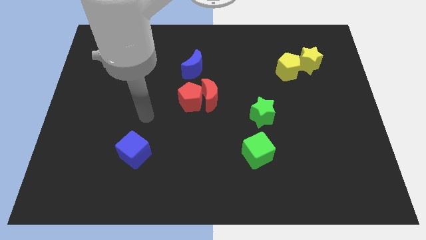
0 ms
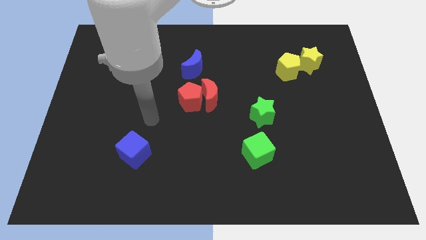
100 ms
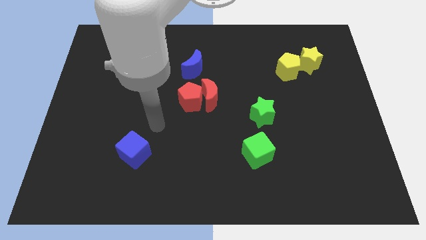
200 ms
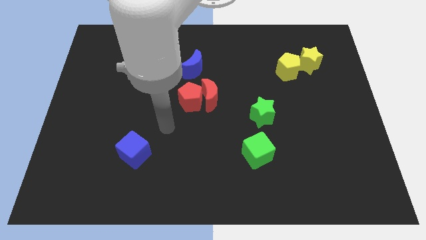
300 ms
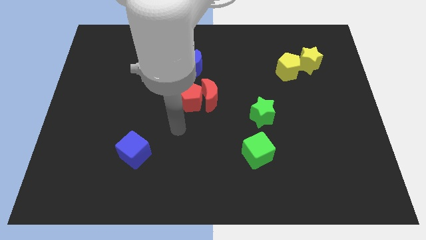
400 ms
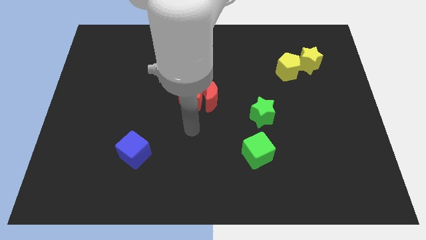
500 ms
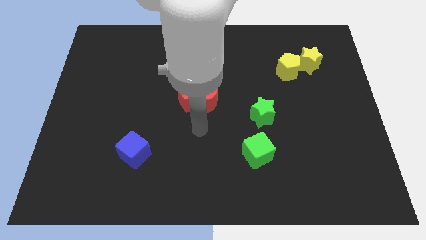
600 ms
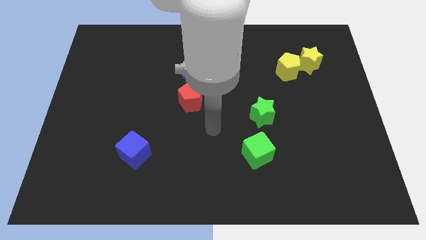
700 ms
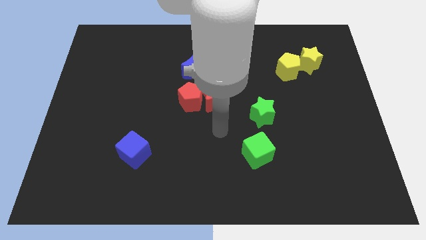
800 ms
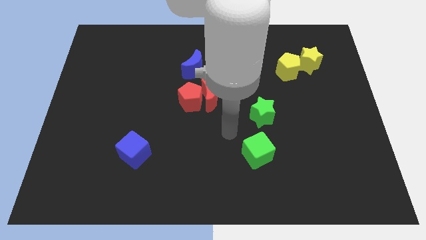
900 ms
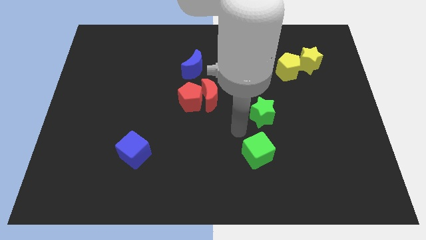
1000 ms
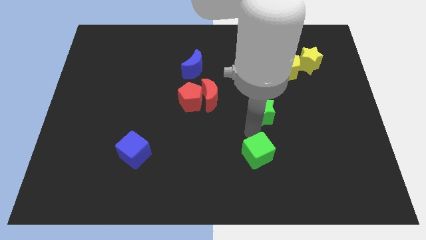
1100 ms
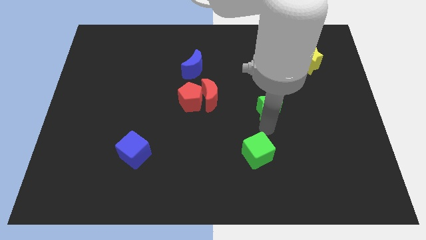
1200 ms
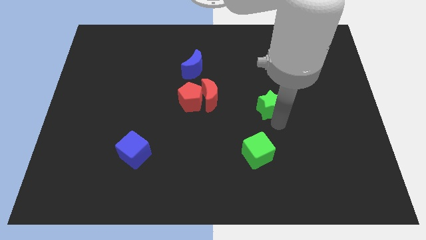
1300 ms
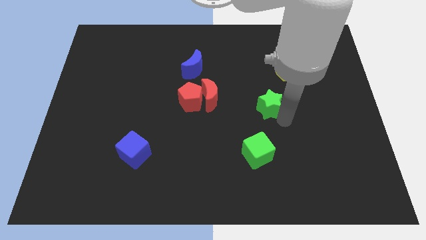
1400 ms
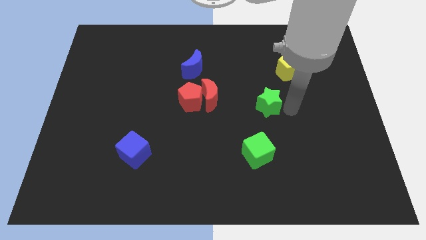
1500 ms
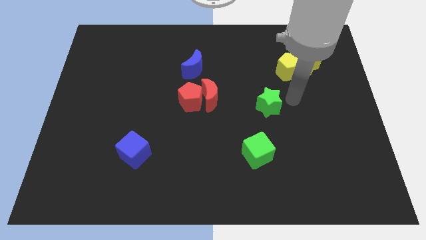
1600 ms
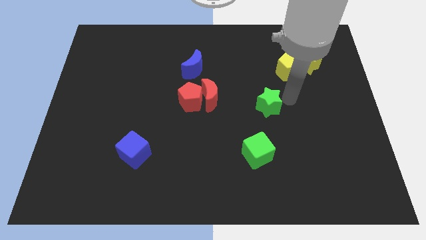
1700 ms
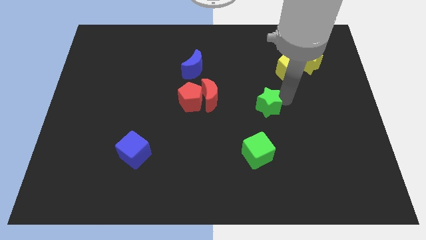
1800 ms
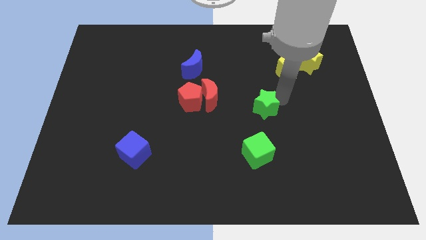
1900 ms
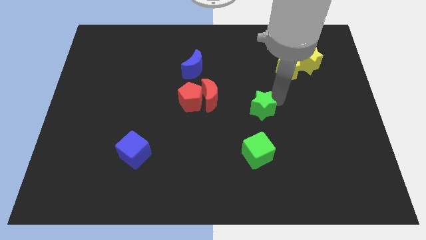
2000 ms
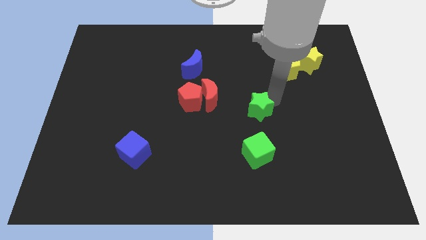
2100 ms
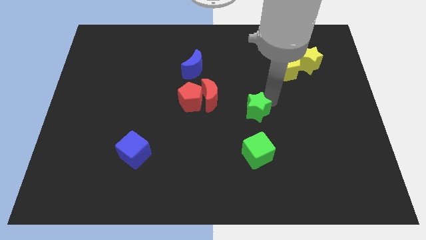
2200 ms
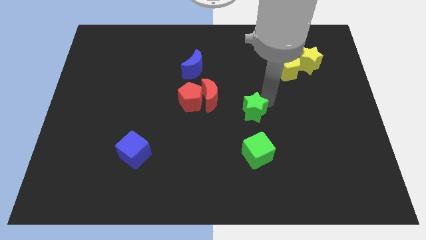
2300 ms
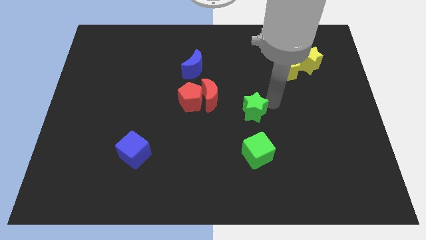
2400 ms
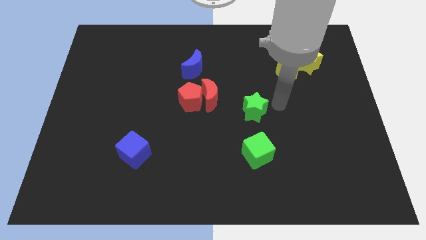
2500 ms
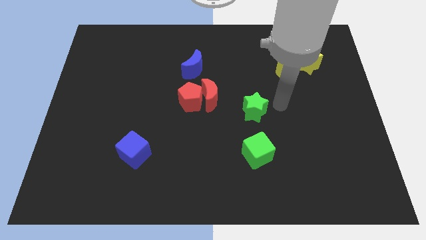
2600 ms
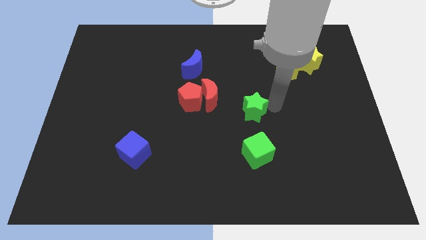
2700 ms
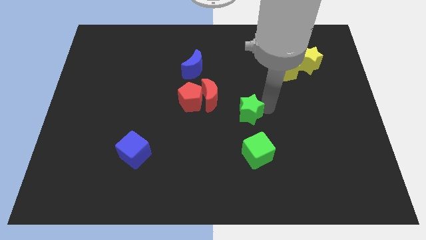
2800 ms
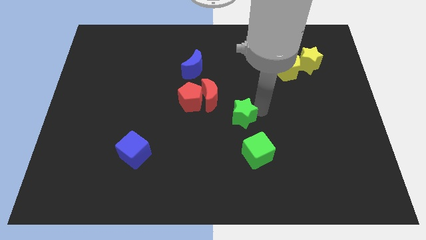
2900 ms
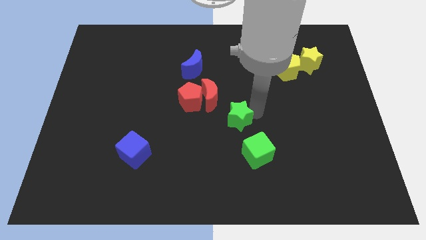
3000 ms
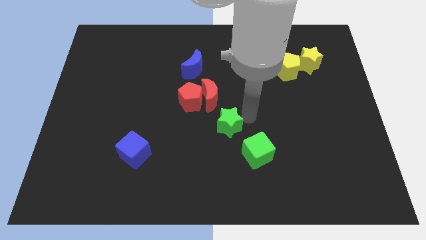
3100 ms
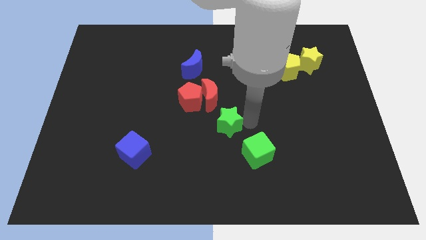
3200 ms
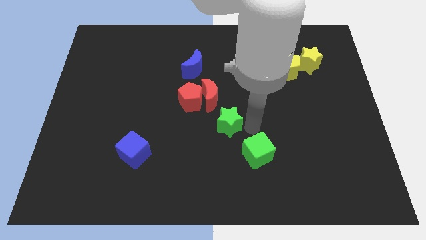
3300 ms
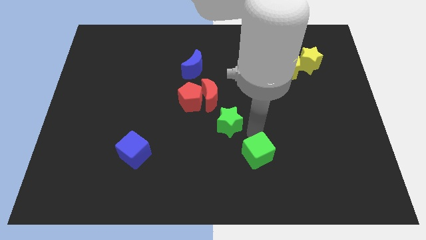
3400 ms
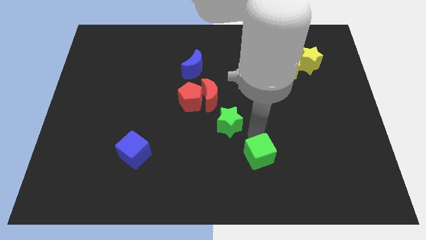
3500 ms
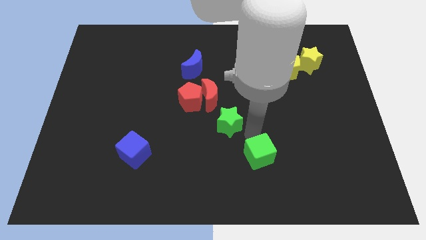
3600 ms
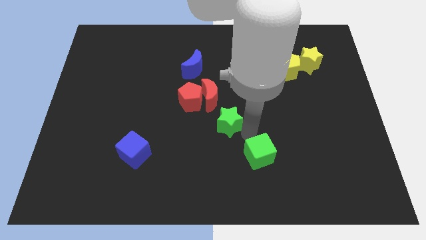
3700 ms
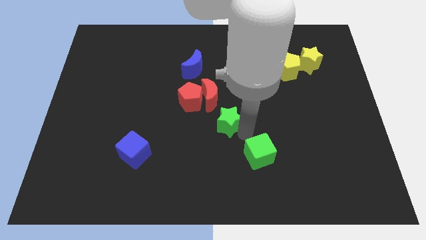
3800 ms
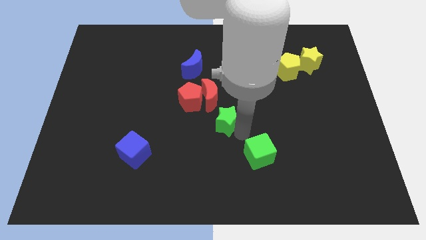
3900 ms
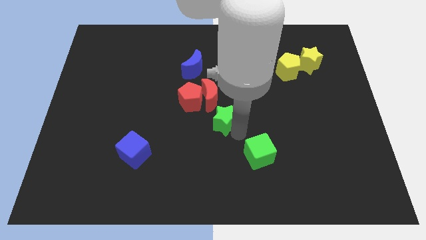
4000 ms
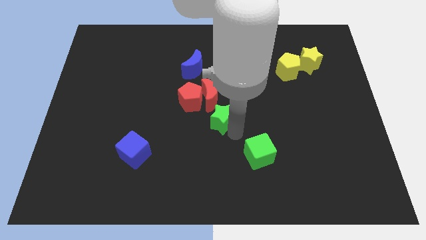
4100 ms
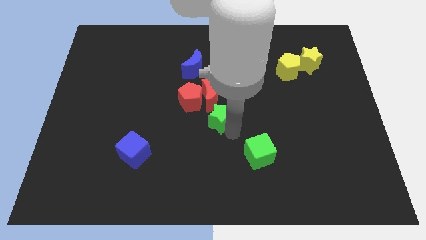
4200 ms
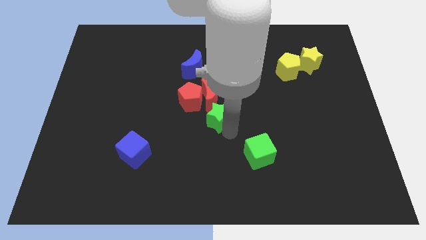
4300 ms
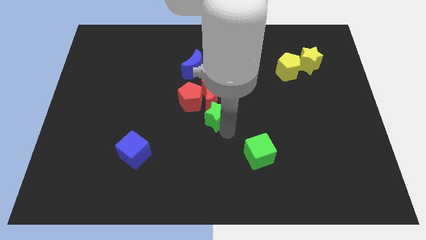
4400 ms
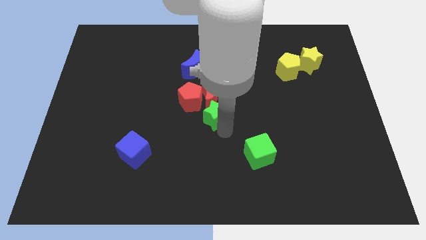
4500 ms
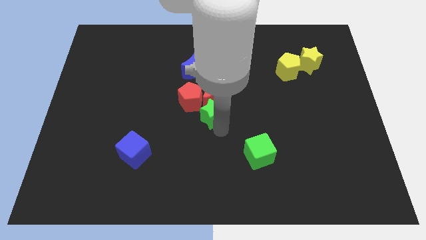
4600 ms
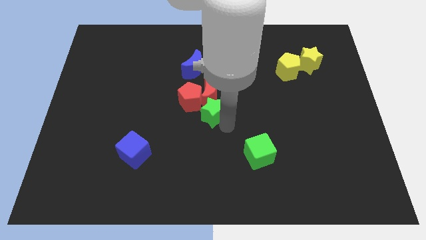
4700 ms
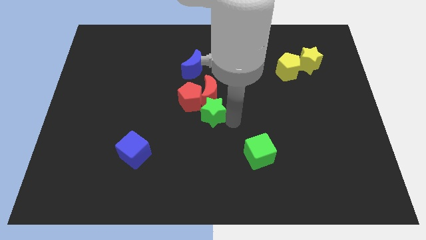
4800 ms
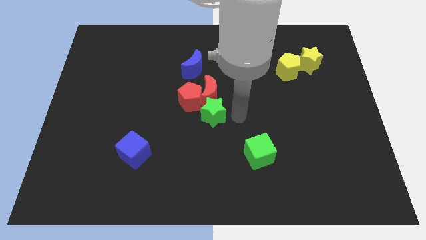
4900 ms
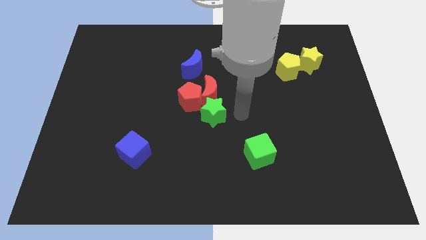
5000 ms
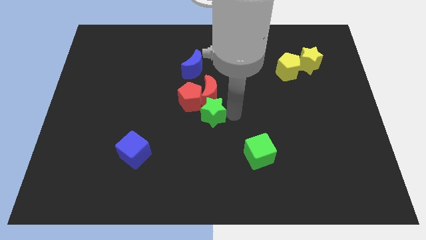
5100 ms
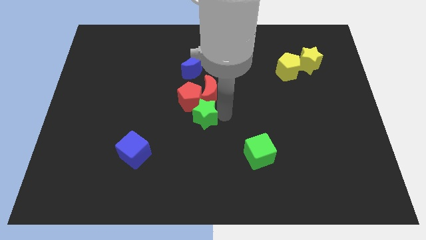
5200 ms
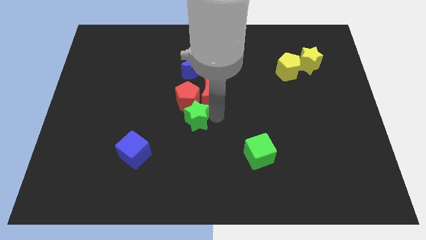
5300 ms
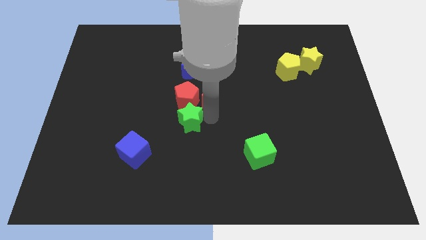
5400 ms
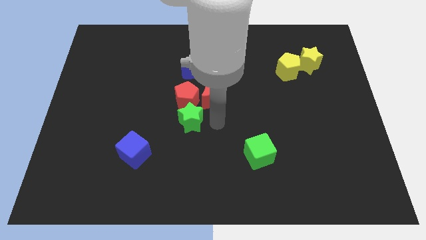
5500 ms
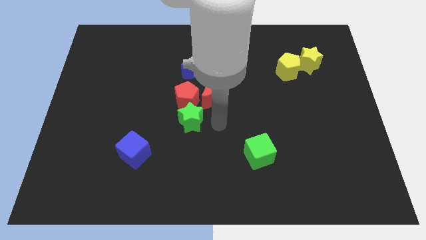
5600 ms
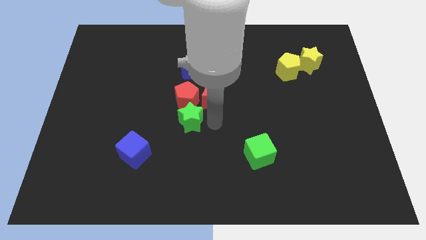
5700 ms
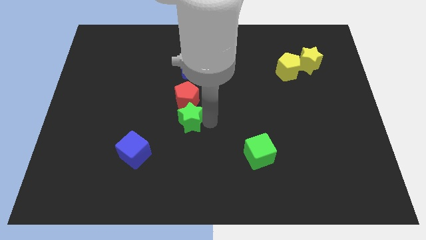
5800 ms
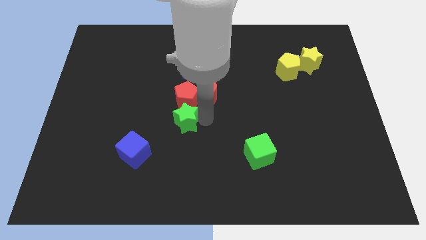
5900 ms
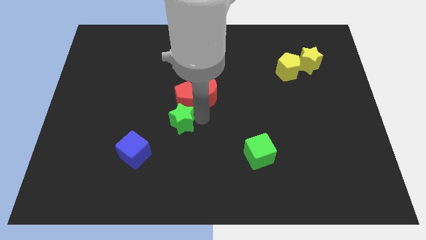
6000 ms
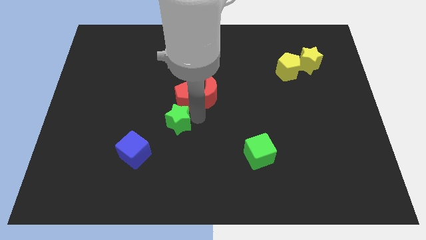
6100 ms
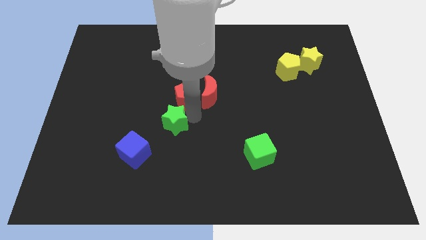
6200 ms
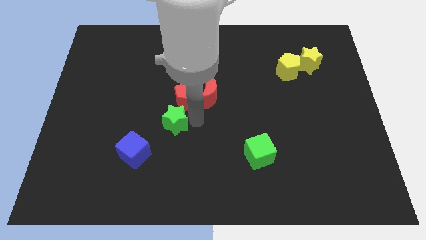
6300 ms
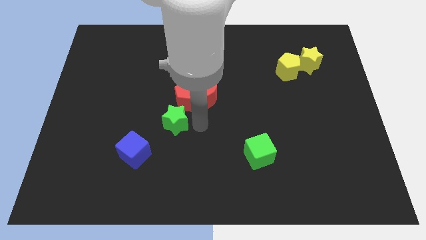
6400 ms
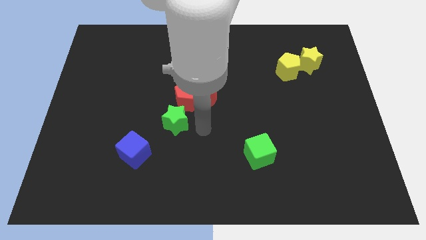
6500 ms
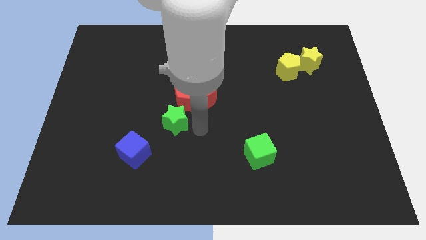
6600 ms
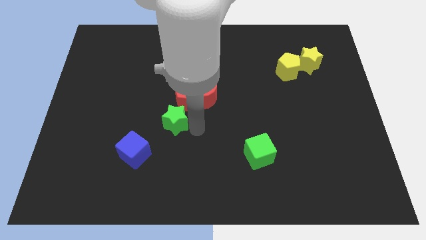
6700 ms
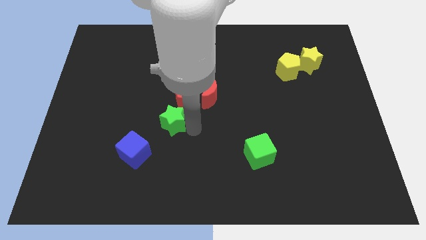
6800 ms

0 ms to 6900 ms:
push the green star left

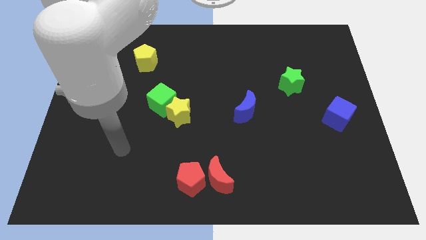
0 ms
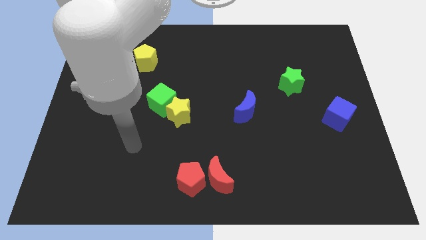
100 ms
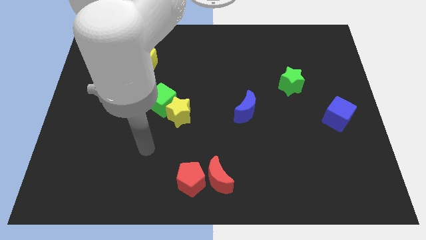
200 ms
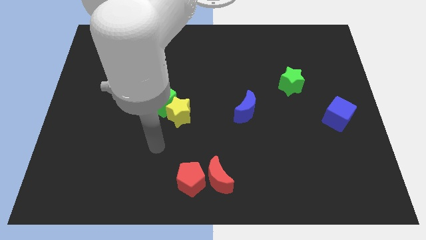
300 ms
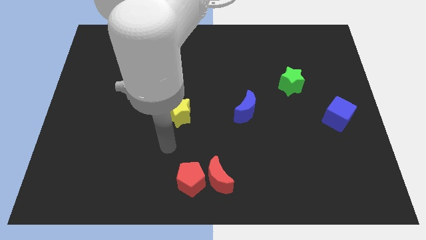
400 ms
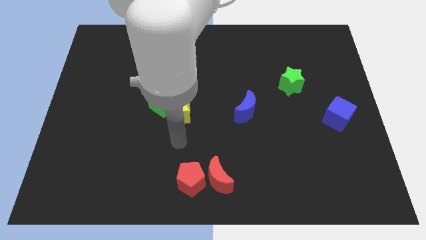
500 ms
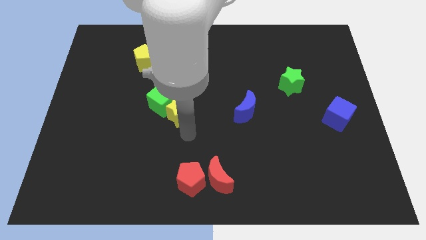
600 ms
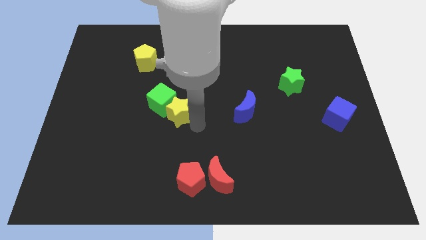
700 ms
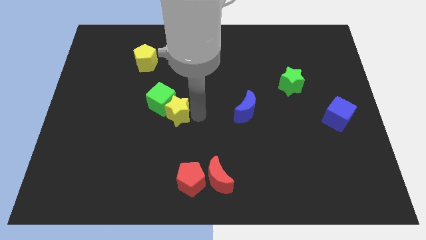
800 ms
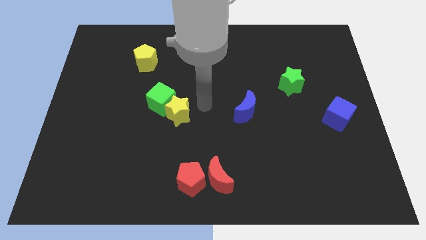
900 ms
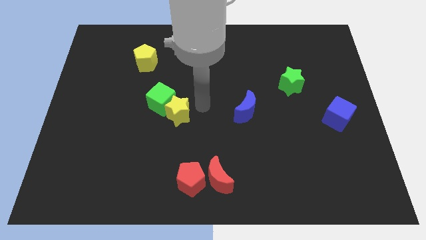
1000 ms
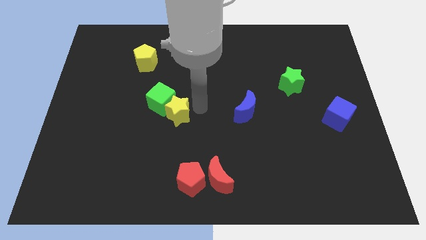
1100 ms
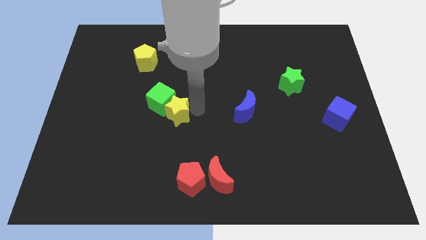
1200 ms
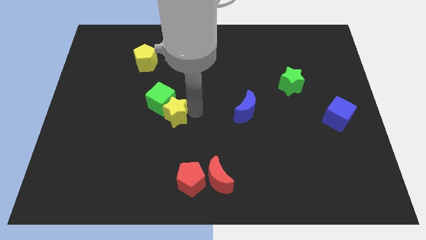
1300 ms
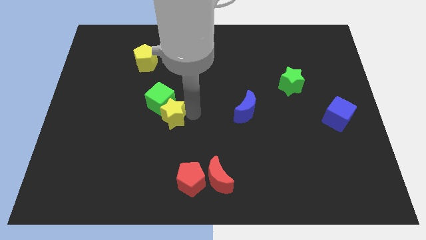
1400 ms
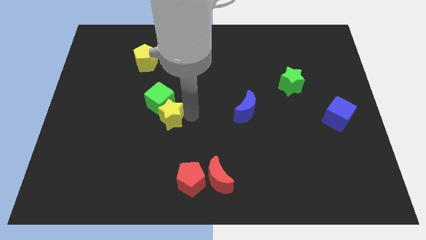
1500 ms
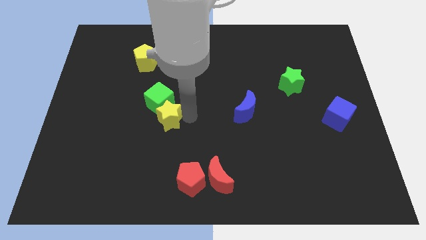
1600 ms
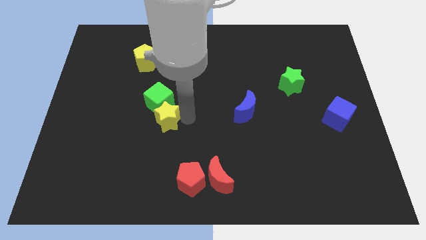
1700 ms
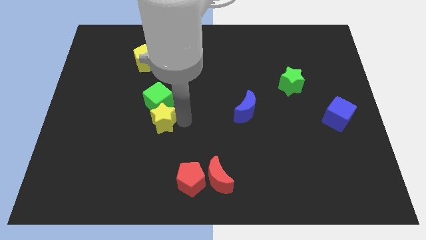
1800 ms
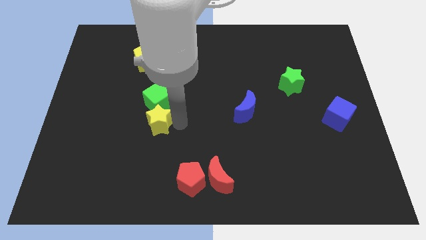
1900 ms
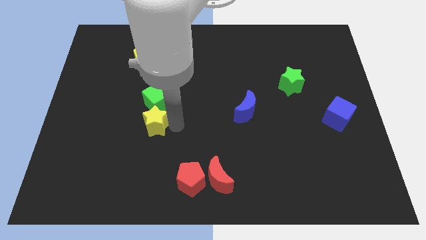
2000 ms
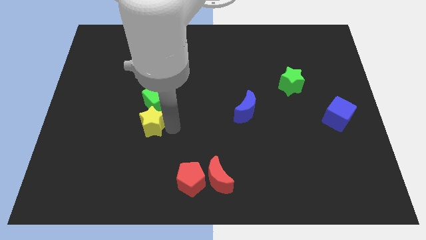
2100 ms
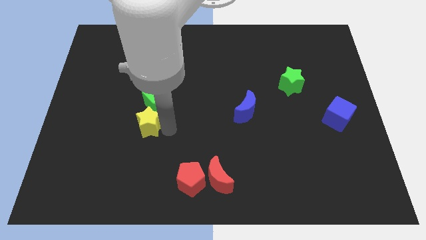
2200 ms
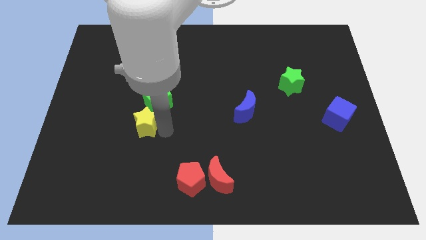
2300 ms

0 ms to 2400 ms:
slide the yellow star to the left slightly
